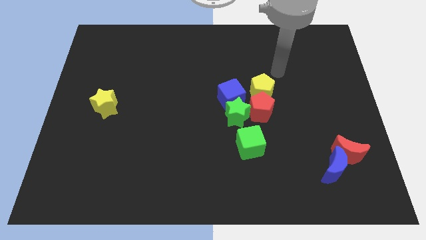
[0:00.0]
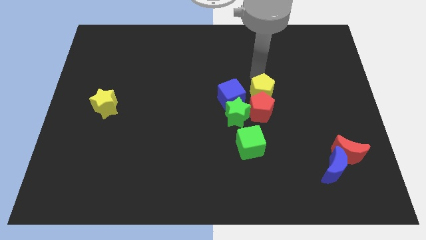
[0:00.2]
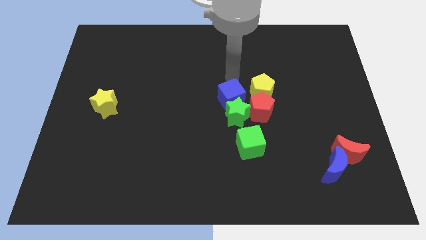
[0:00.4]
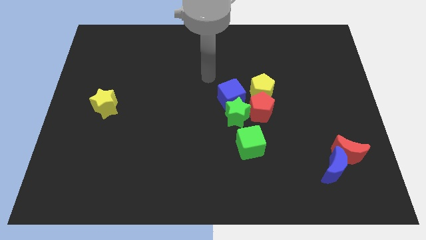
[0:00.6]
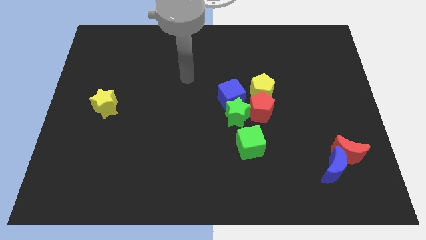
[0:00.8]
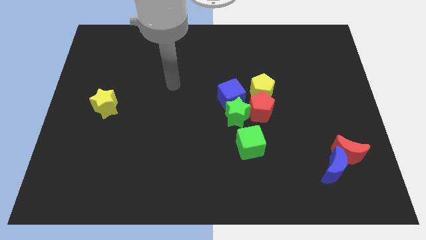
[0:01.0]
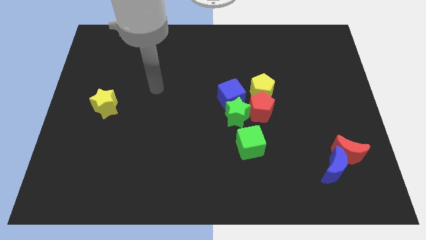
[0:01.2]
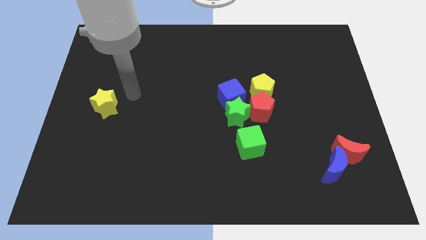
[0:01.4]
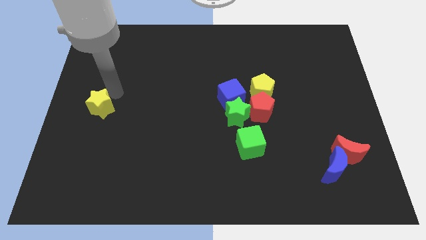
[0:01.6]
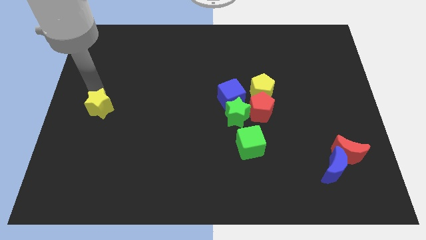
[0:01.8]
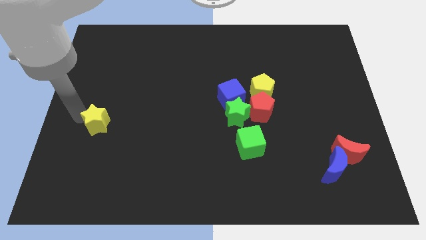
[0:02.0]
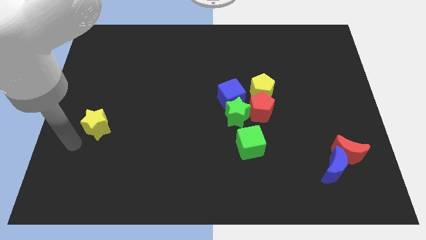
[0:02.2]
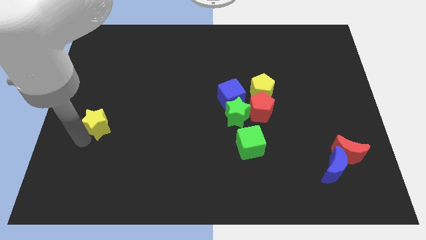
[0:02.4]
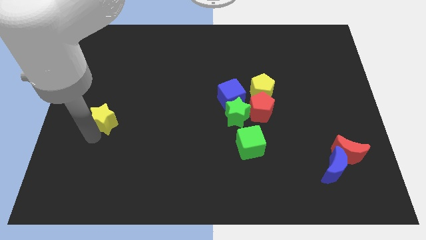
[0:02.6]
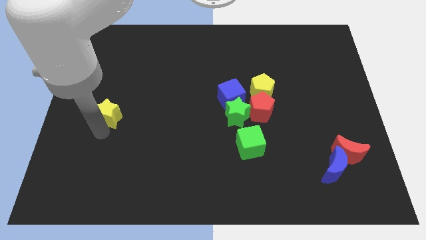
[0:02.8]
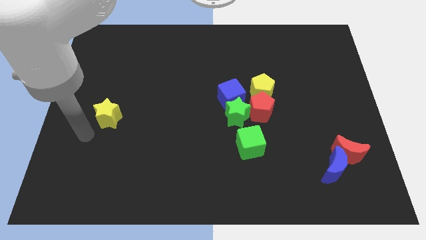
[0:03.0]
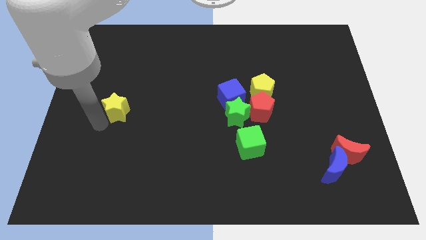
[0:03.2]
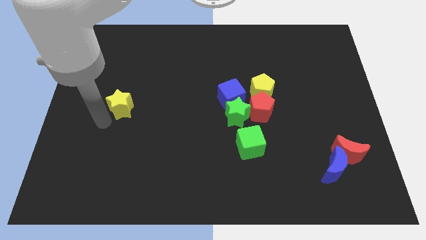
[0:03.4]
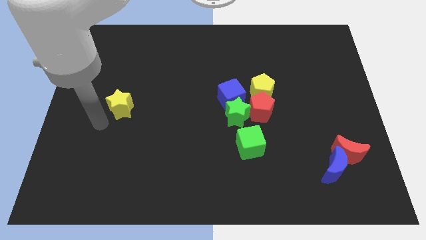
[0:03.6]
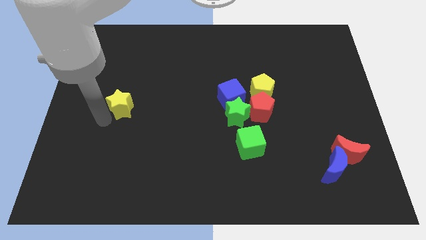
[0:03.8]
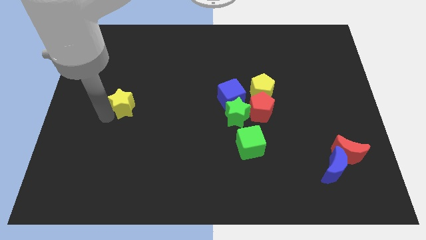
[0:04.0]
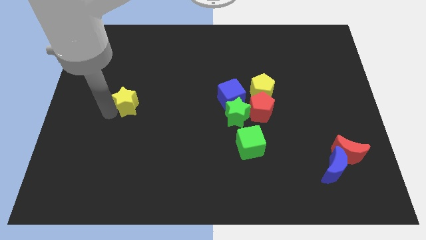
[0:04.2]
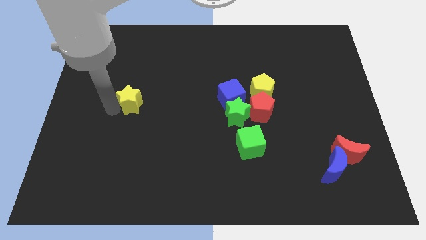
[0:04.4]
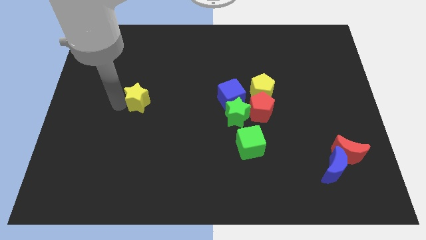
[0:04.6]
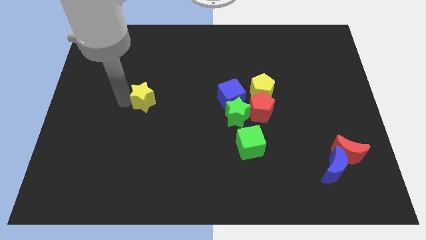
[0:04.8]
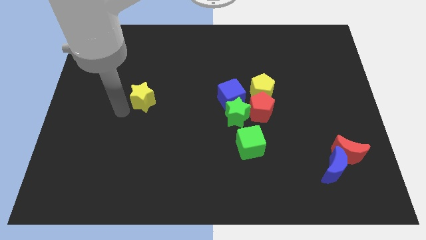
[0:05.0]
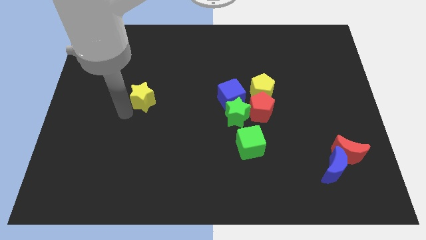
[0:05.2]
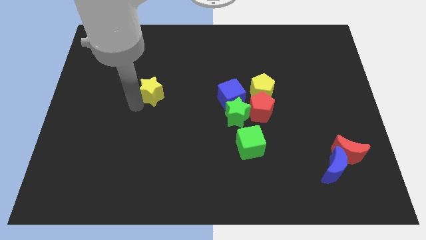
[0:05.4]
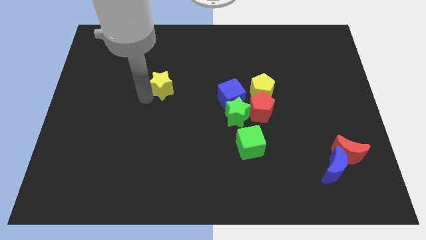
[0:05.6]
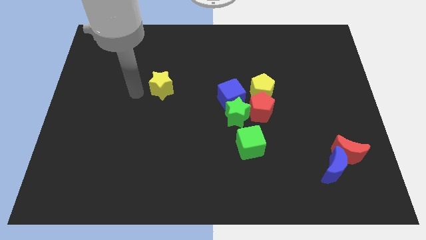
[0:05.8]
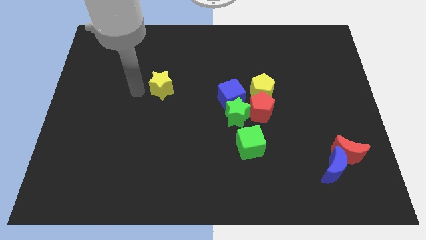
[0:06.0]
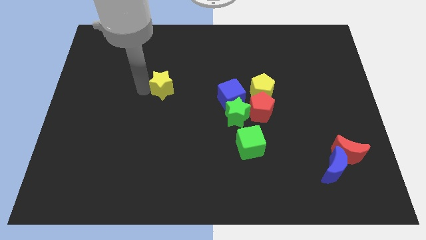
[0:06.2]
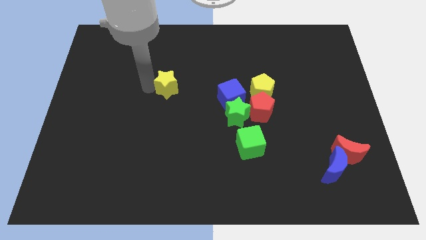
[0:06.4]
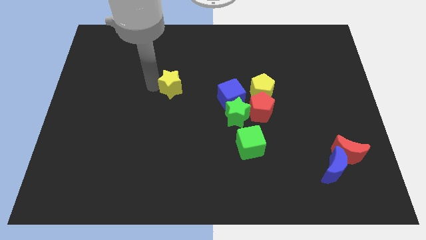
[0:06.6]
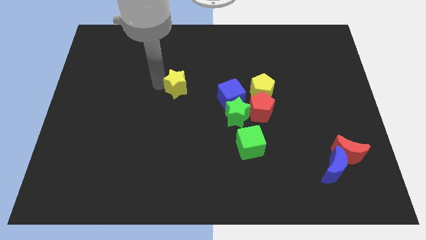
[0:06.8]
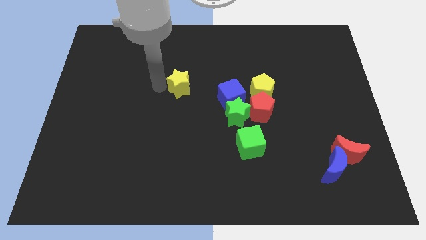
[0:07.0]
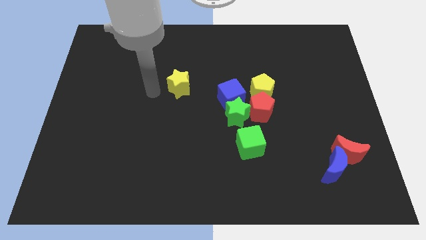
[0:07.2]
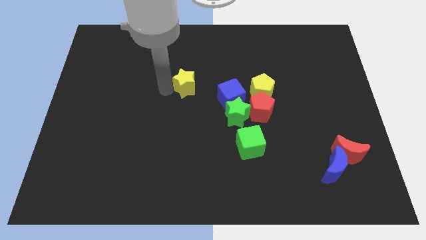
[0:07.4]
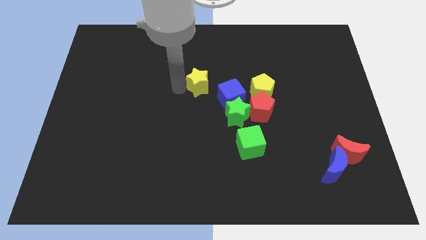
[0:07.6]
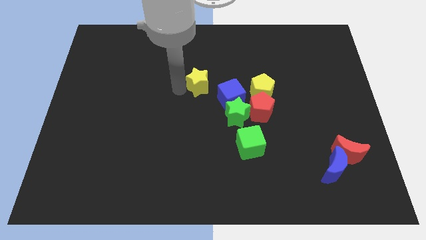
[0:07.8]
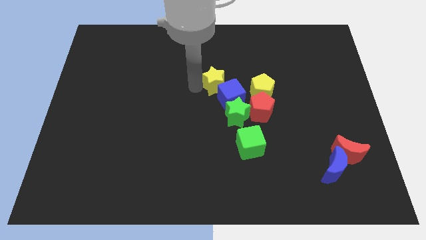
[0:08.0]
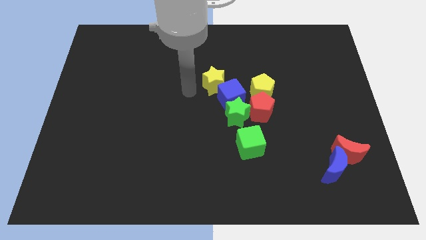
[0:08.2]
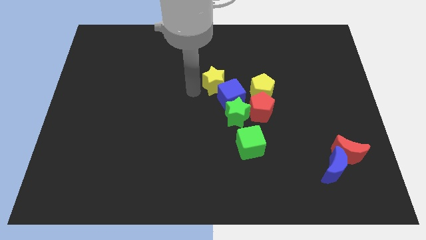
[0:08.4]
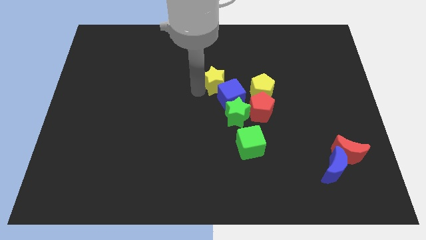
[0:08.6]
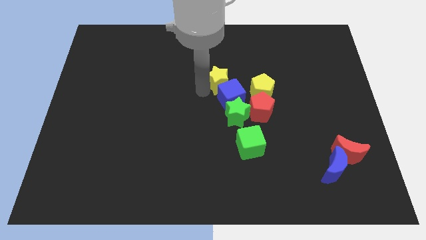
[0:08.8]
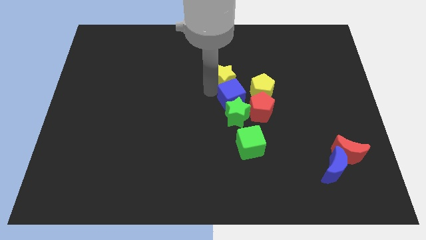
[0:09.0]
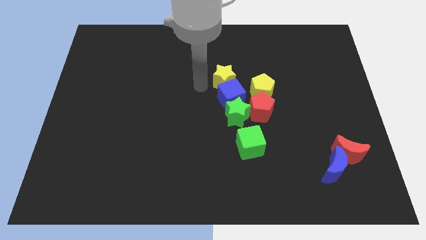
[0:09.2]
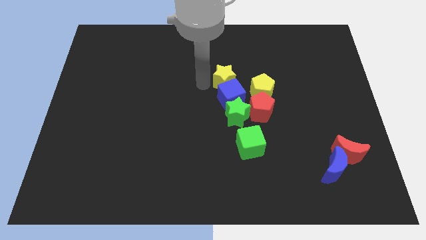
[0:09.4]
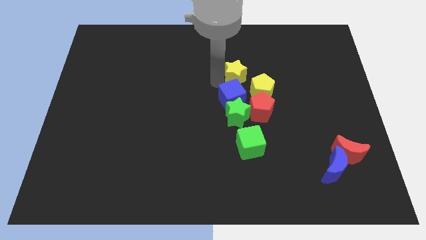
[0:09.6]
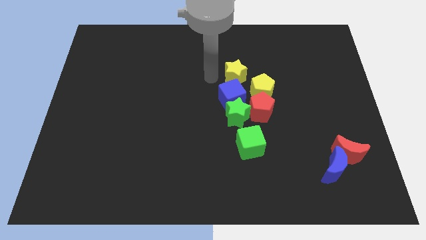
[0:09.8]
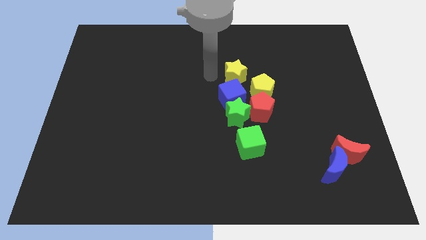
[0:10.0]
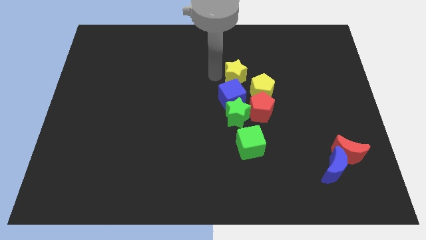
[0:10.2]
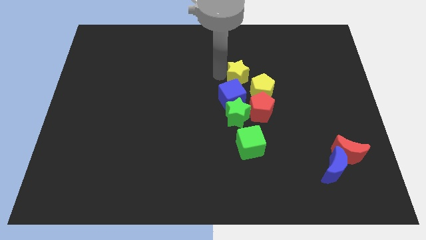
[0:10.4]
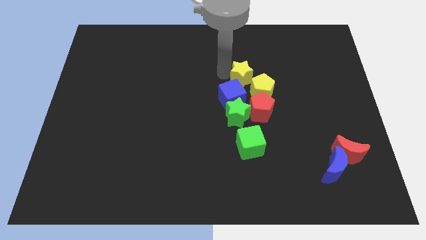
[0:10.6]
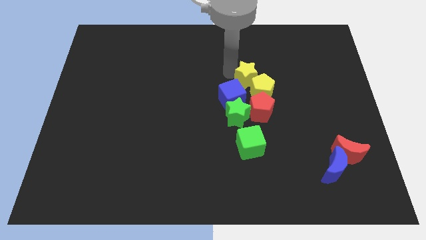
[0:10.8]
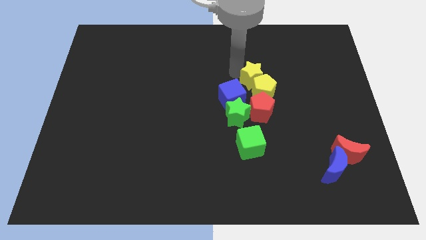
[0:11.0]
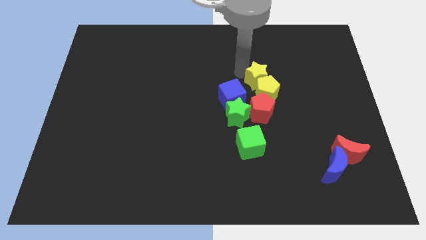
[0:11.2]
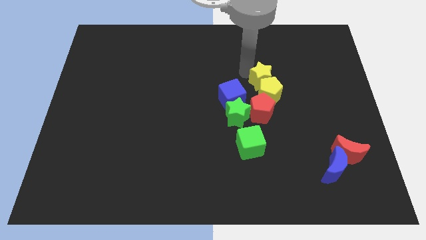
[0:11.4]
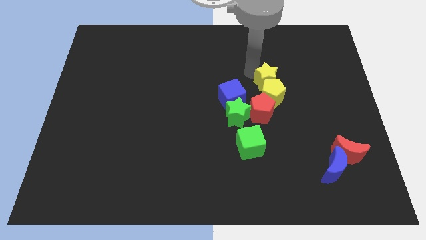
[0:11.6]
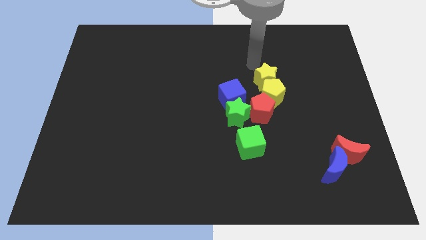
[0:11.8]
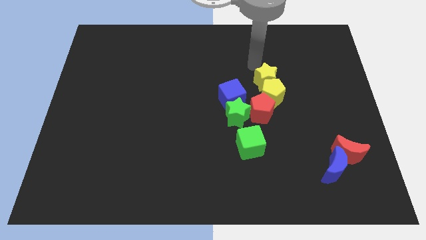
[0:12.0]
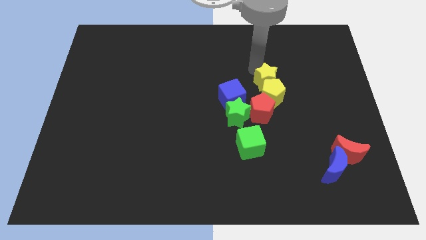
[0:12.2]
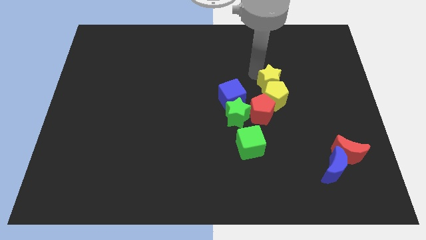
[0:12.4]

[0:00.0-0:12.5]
push the yellow star to the right of the blue cube
